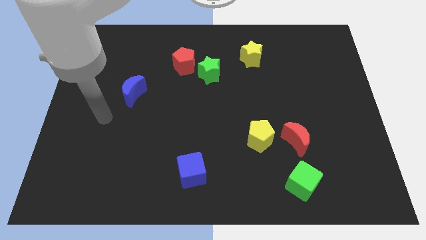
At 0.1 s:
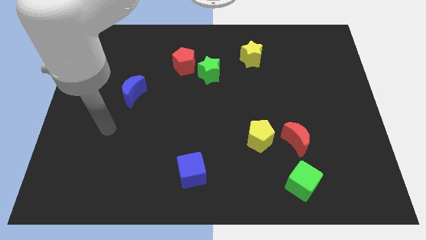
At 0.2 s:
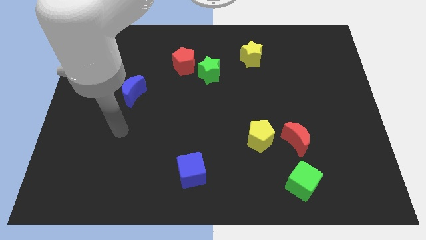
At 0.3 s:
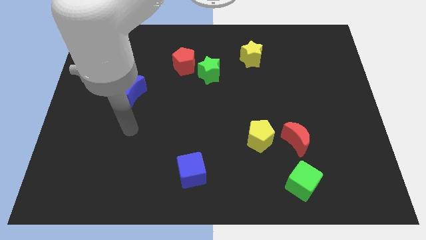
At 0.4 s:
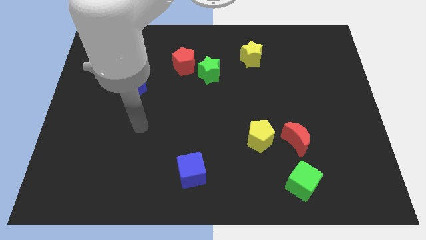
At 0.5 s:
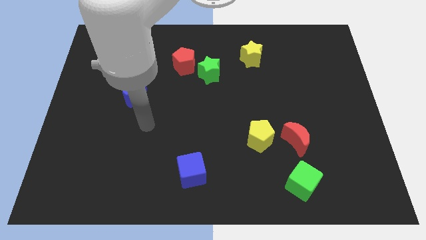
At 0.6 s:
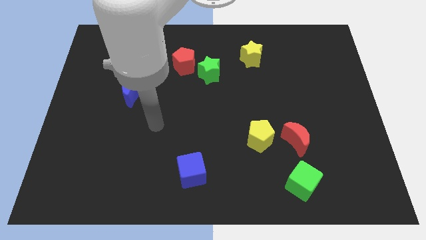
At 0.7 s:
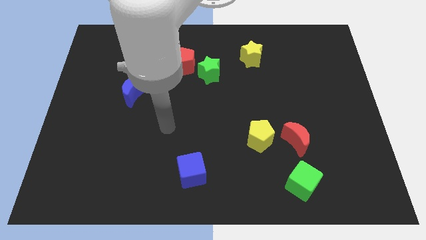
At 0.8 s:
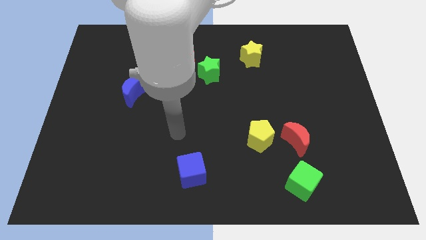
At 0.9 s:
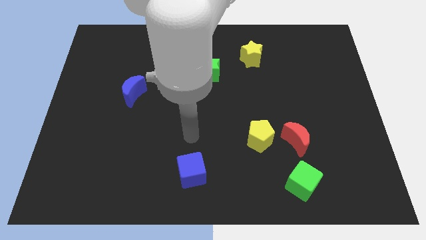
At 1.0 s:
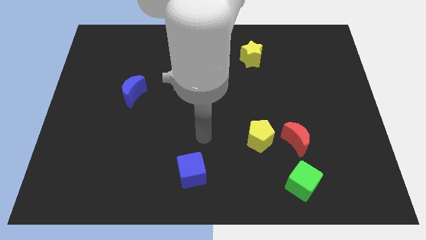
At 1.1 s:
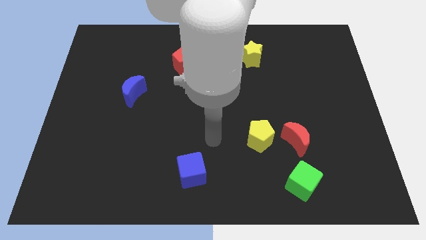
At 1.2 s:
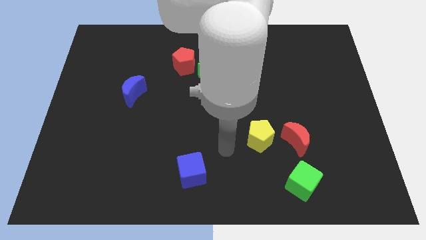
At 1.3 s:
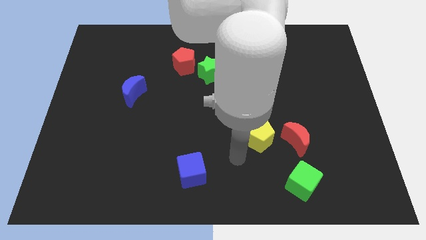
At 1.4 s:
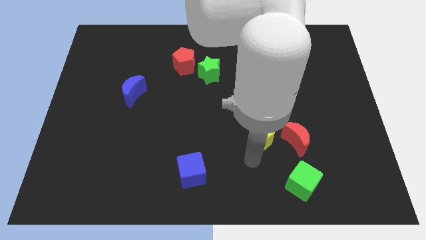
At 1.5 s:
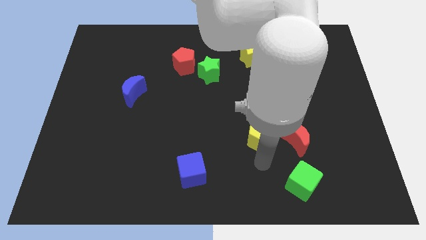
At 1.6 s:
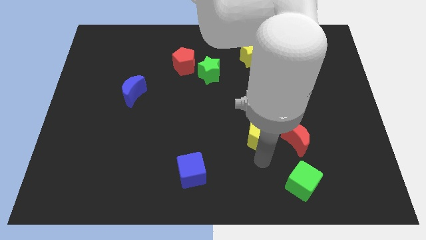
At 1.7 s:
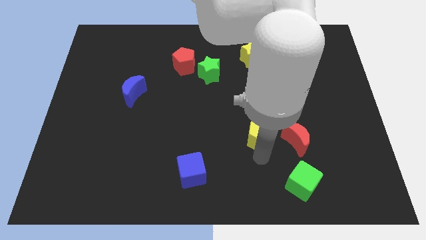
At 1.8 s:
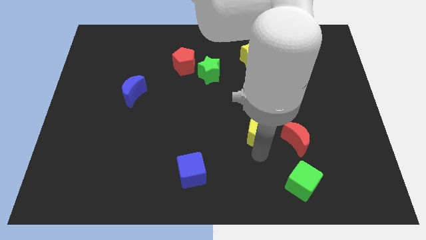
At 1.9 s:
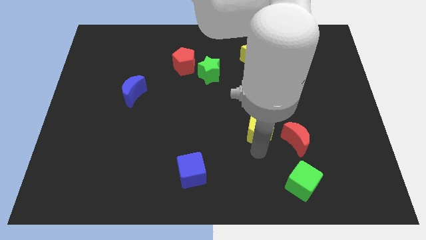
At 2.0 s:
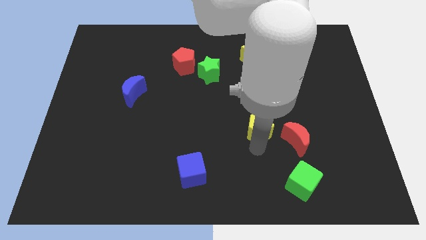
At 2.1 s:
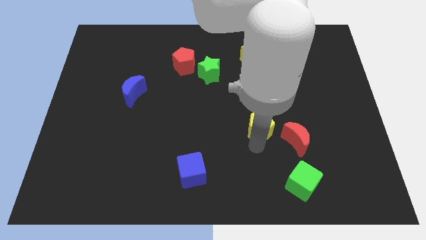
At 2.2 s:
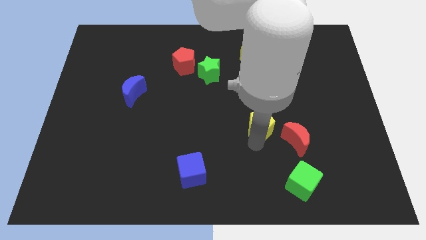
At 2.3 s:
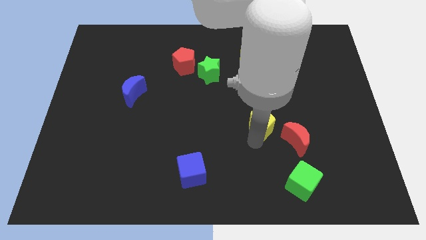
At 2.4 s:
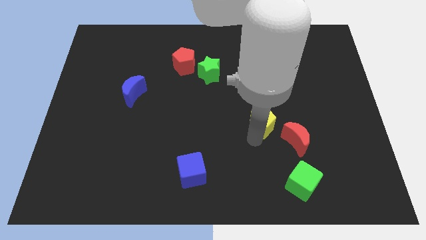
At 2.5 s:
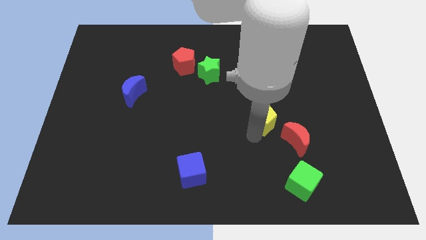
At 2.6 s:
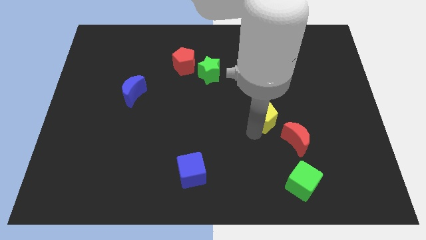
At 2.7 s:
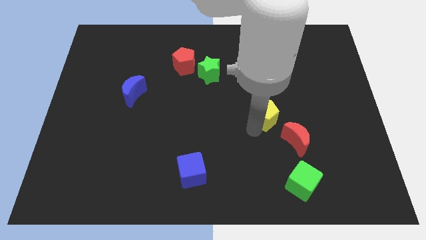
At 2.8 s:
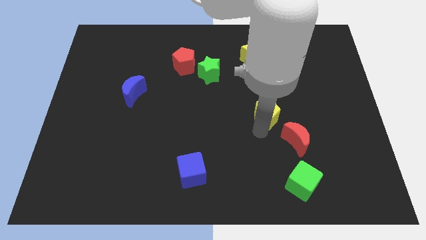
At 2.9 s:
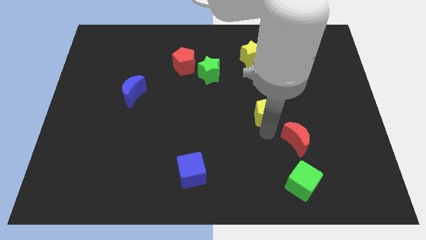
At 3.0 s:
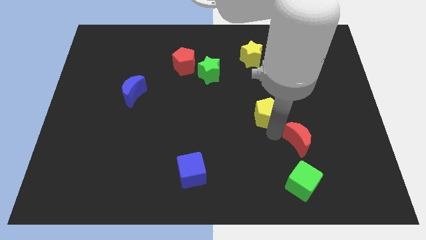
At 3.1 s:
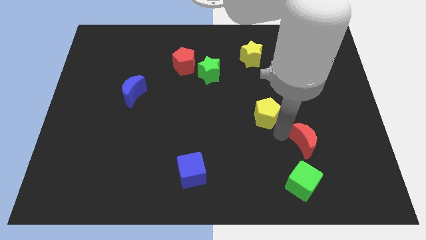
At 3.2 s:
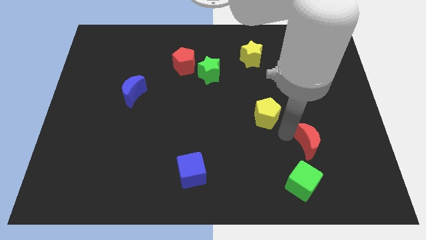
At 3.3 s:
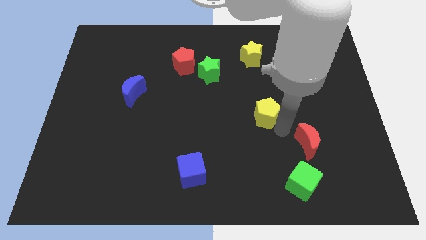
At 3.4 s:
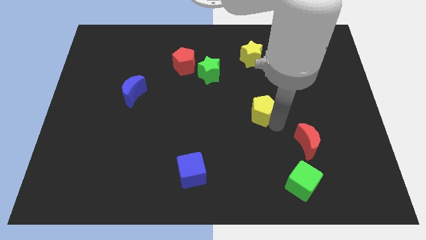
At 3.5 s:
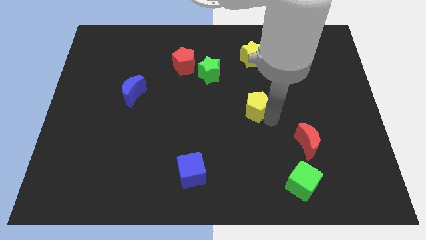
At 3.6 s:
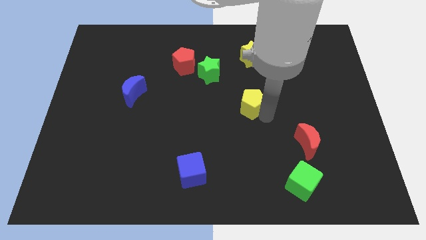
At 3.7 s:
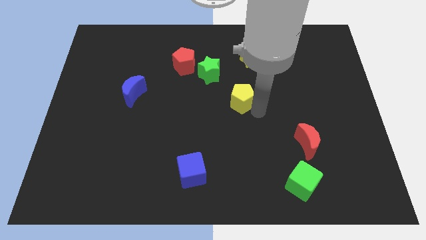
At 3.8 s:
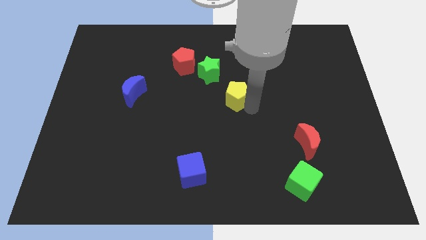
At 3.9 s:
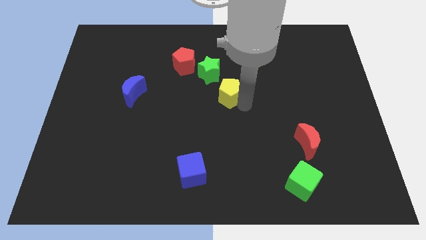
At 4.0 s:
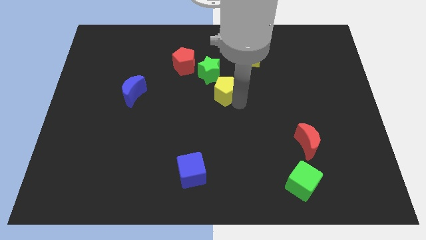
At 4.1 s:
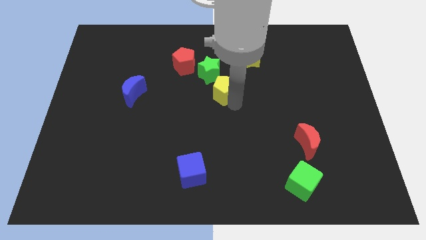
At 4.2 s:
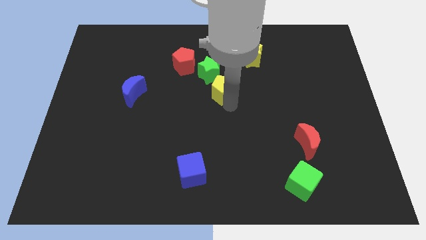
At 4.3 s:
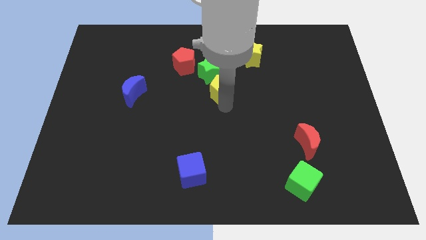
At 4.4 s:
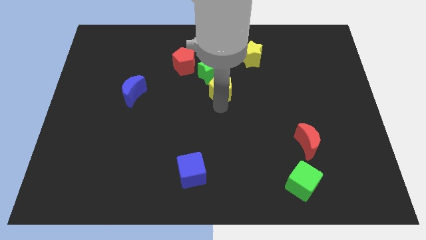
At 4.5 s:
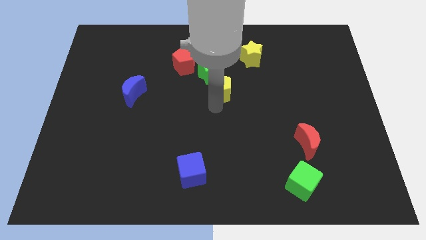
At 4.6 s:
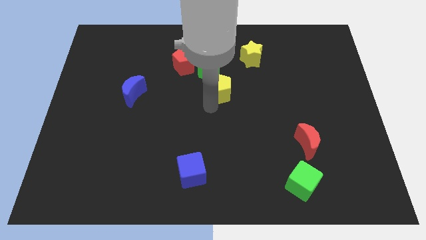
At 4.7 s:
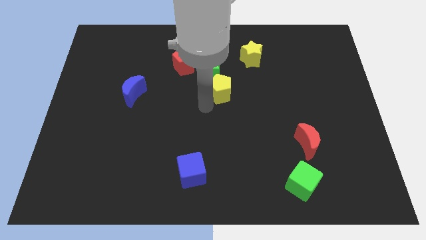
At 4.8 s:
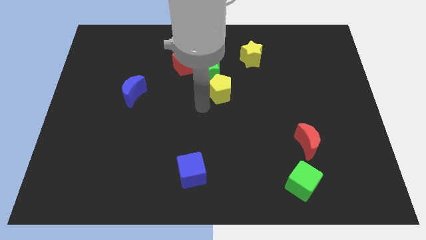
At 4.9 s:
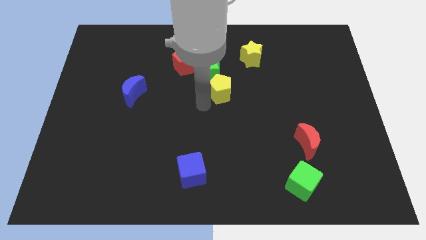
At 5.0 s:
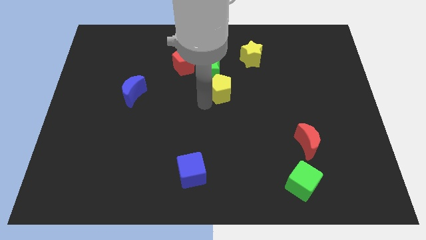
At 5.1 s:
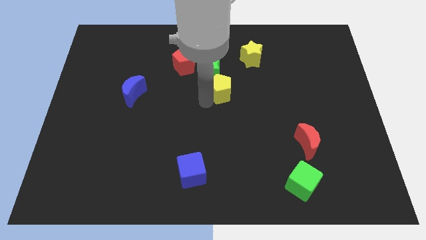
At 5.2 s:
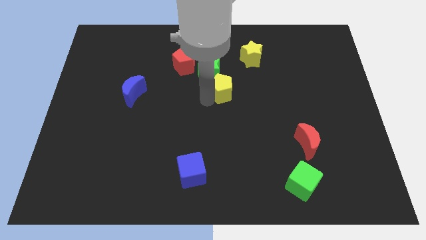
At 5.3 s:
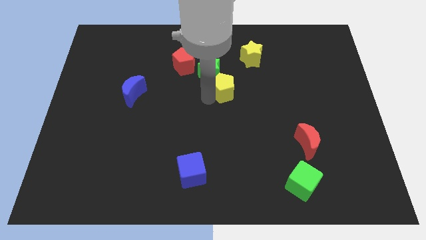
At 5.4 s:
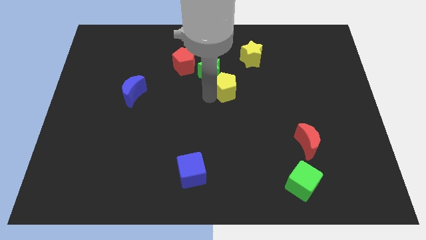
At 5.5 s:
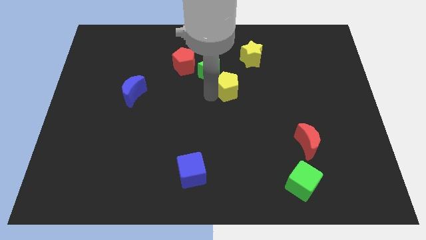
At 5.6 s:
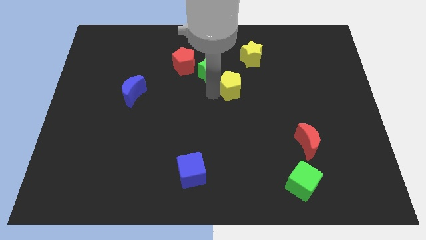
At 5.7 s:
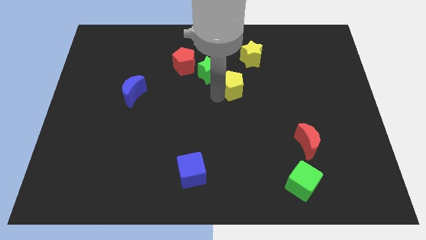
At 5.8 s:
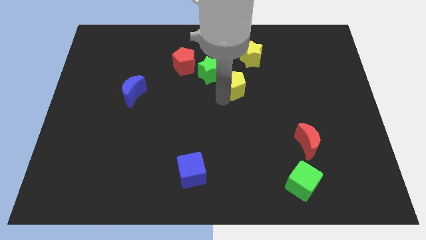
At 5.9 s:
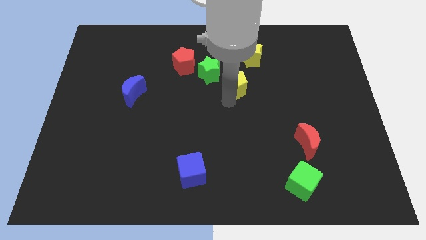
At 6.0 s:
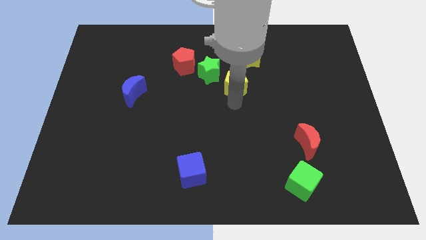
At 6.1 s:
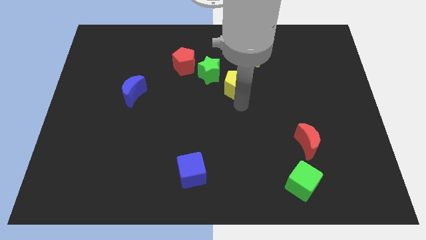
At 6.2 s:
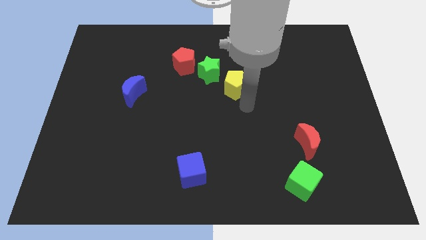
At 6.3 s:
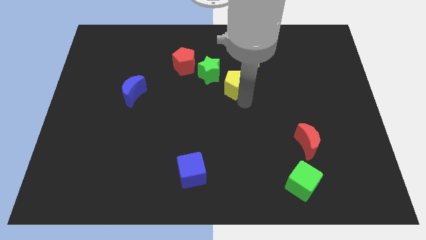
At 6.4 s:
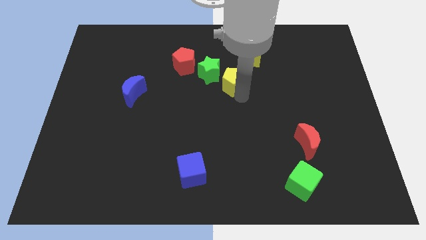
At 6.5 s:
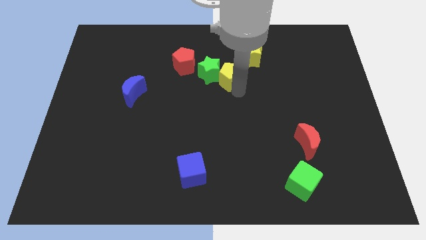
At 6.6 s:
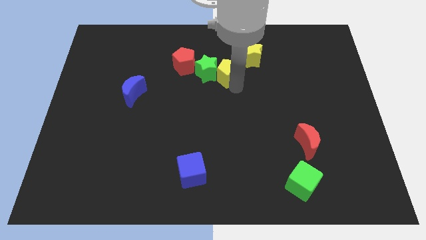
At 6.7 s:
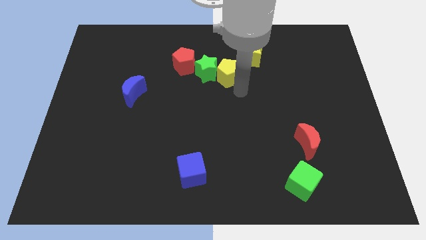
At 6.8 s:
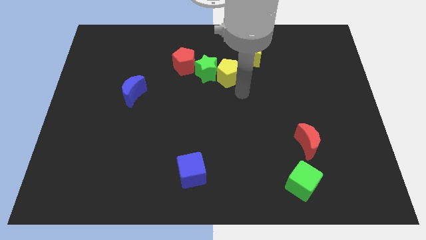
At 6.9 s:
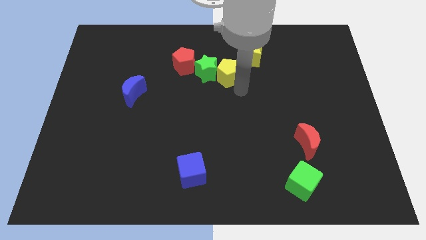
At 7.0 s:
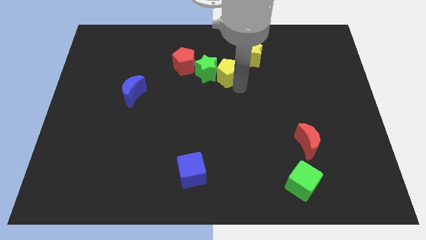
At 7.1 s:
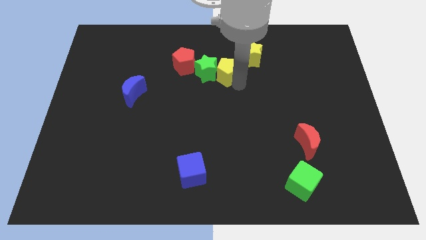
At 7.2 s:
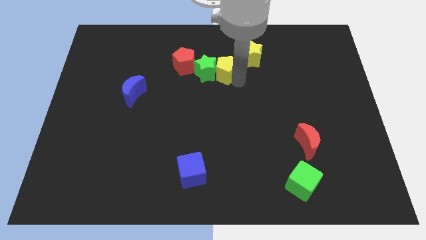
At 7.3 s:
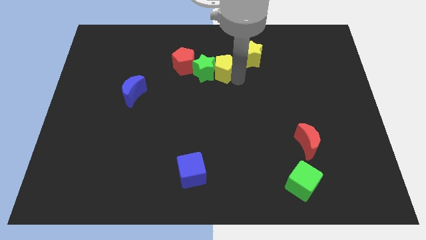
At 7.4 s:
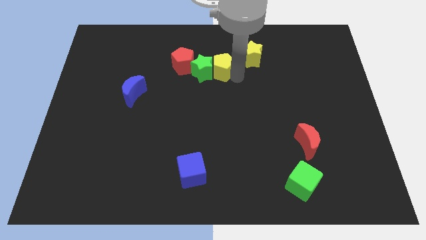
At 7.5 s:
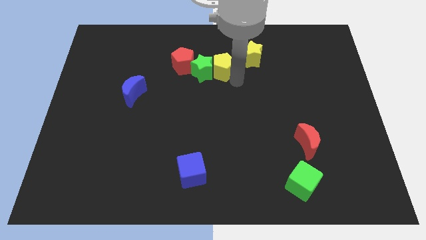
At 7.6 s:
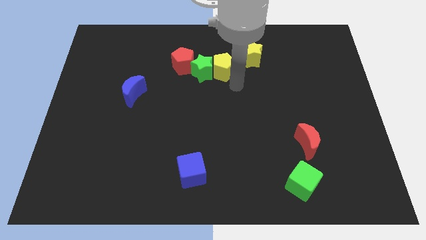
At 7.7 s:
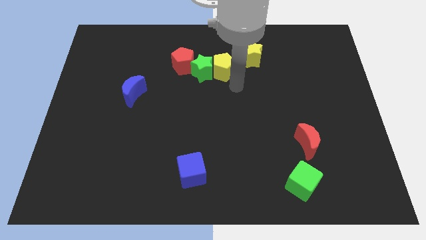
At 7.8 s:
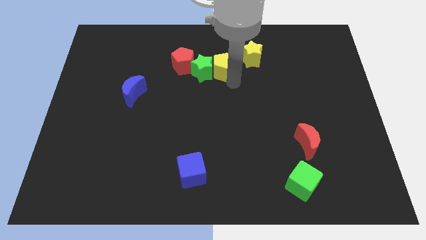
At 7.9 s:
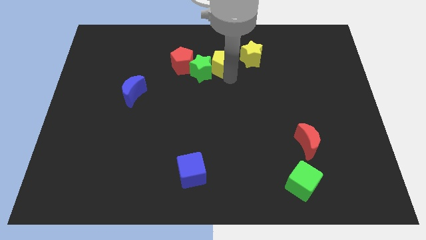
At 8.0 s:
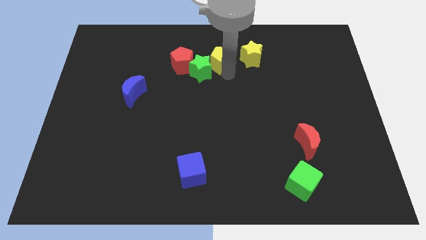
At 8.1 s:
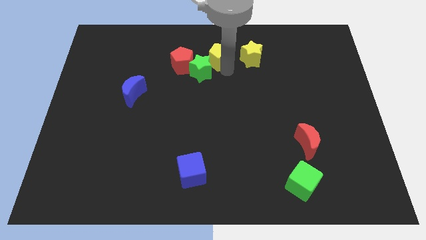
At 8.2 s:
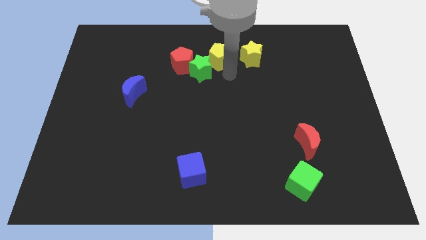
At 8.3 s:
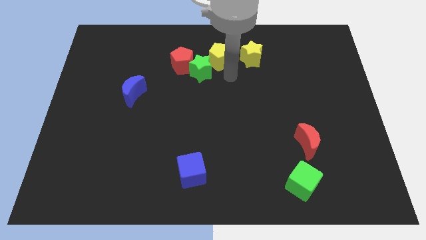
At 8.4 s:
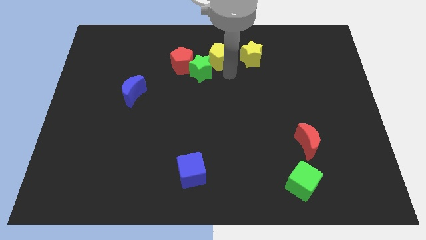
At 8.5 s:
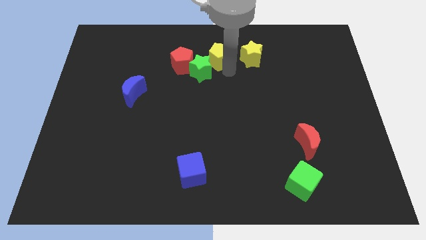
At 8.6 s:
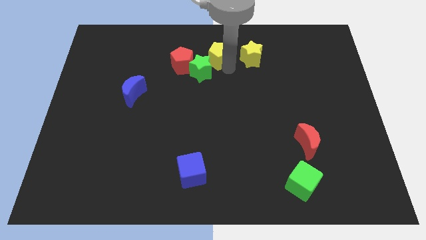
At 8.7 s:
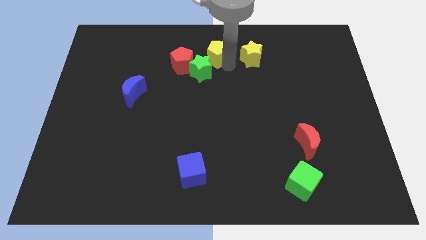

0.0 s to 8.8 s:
push the yellow pentagon to the top side
